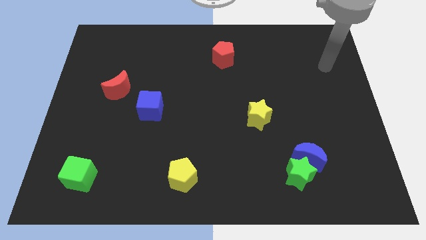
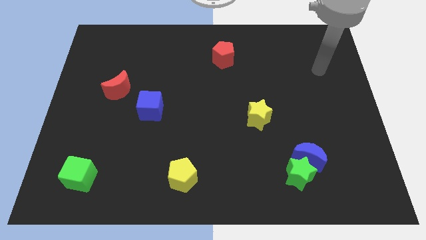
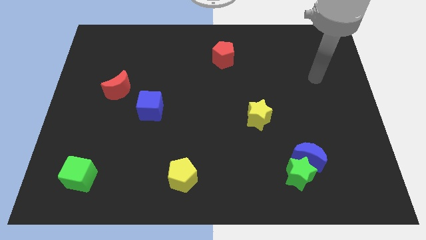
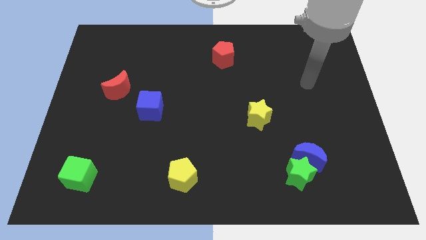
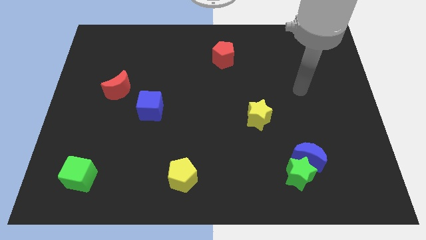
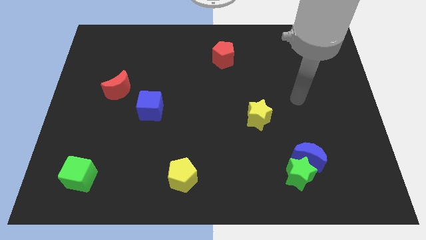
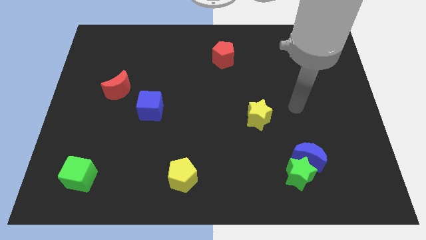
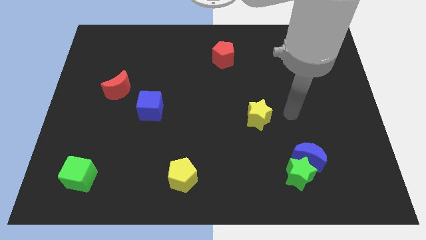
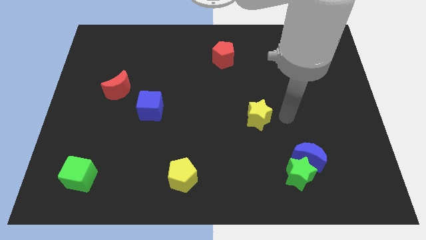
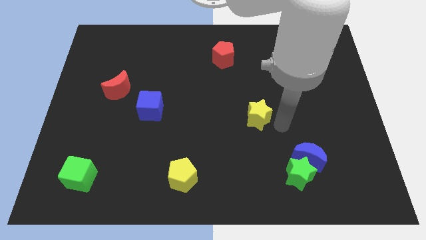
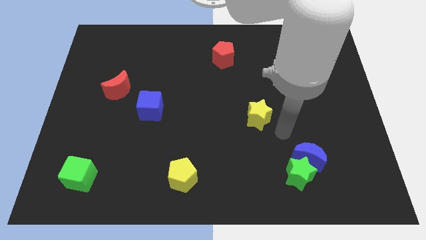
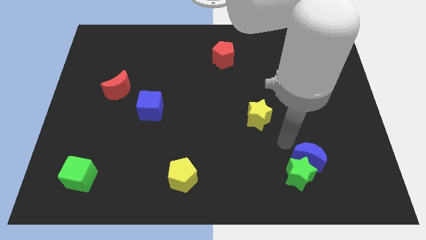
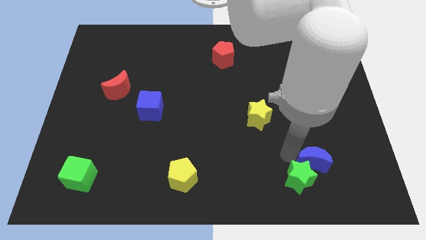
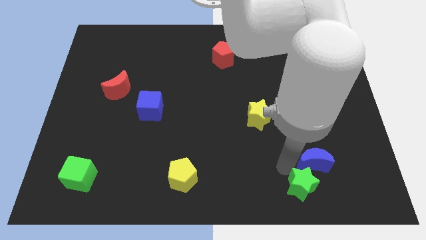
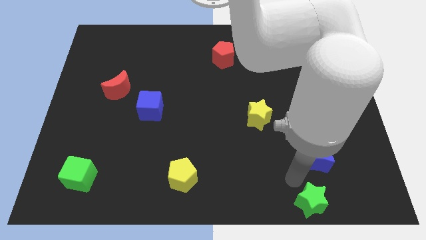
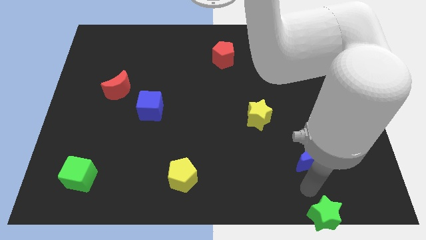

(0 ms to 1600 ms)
pull the blue moon apart from the green star

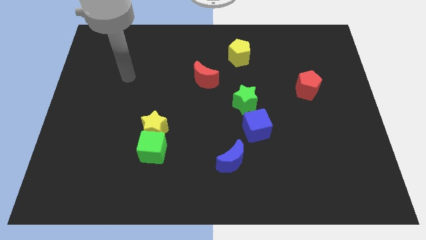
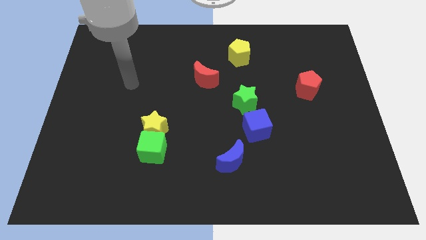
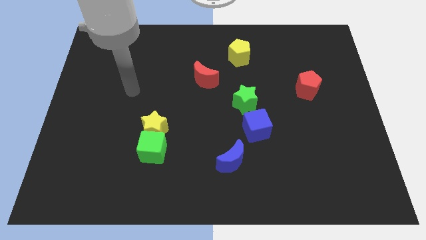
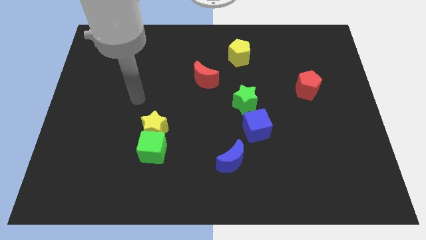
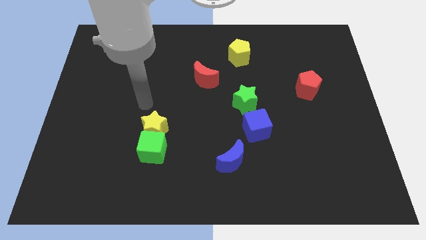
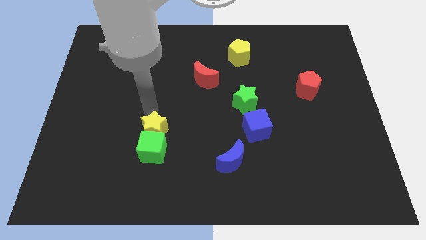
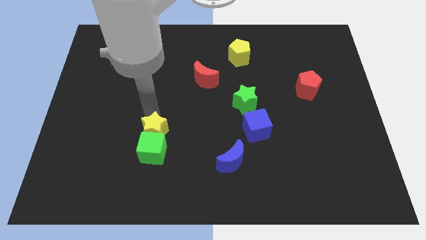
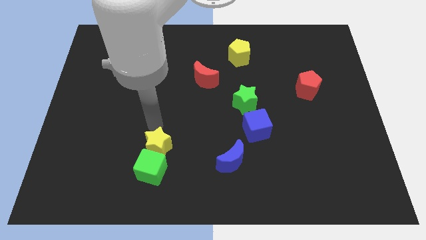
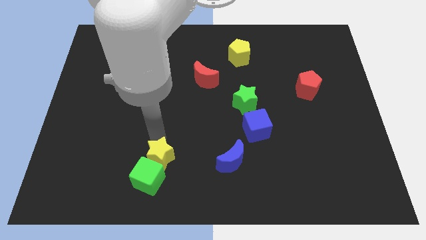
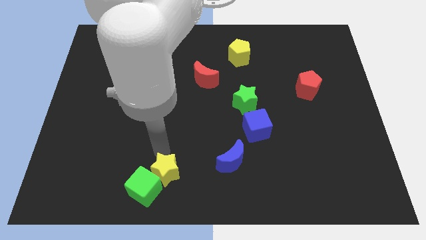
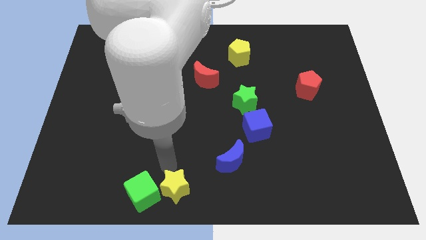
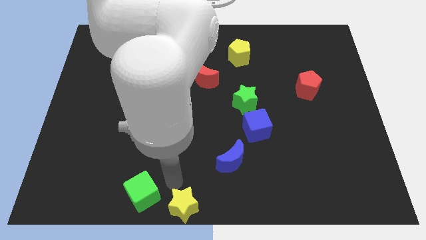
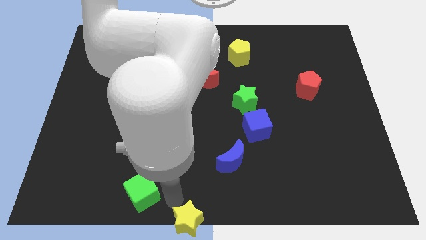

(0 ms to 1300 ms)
move the green cube away from the yellow star

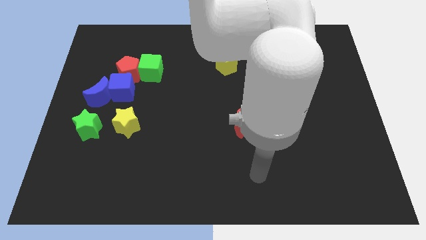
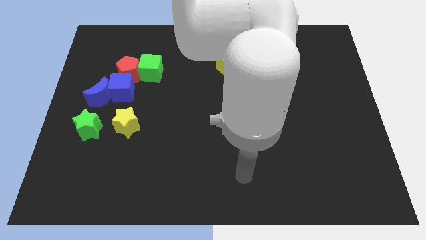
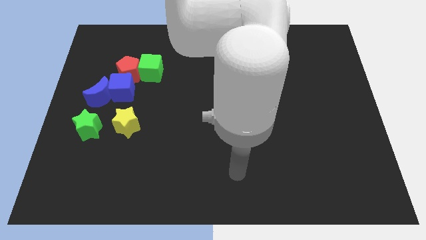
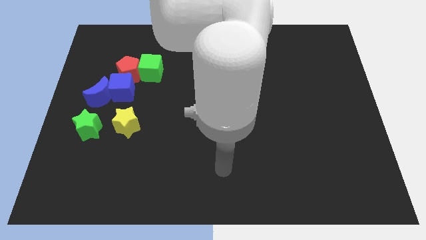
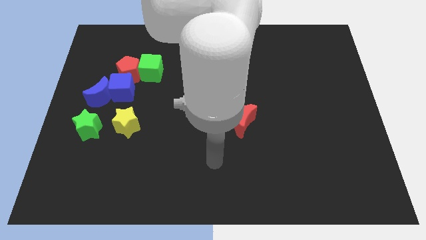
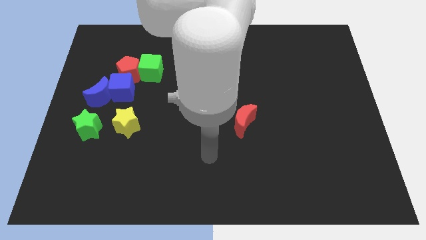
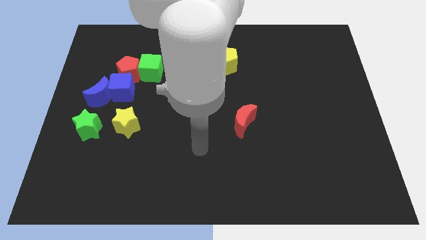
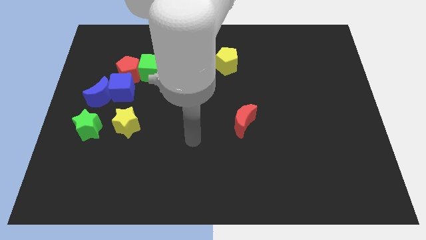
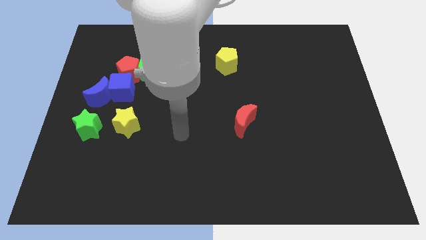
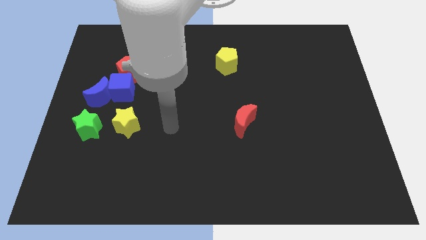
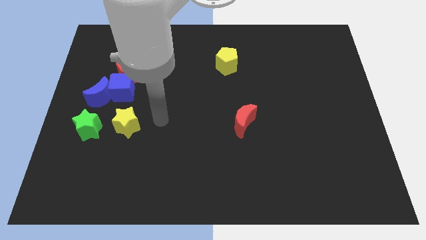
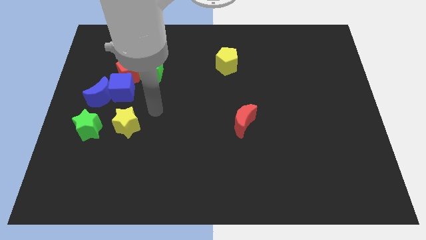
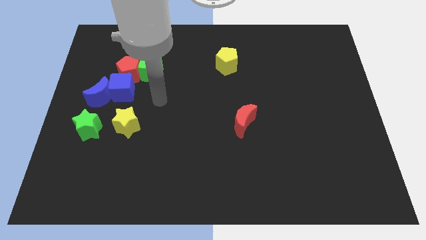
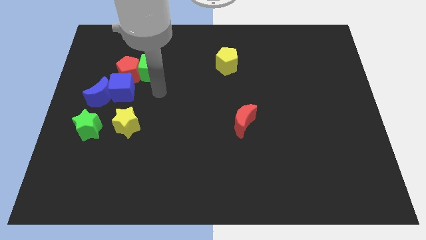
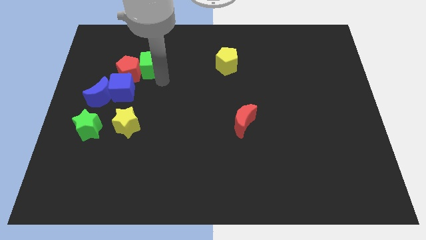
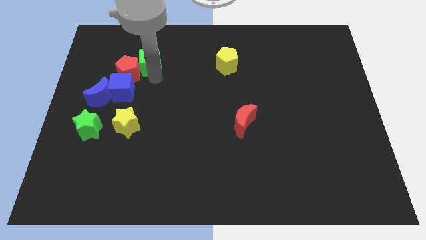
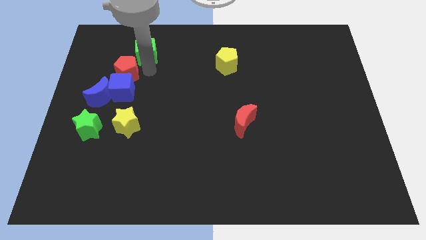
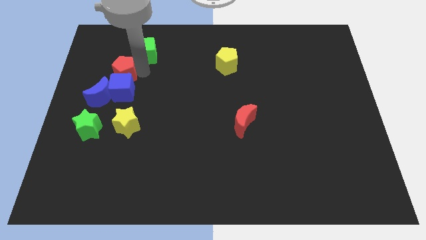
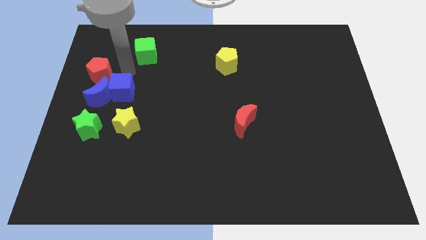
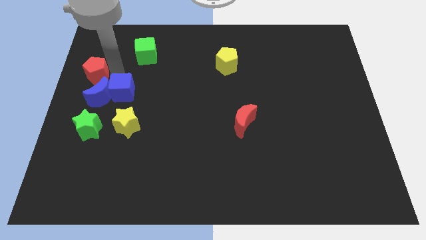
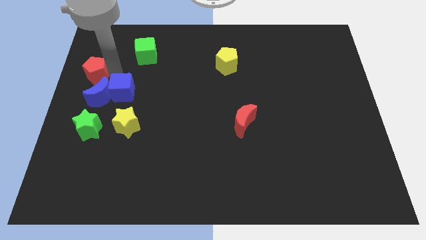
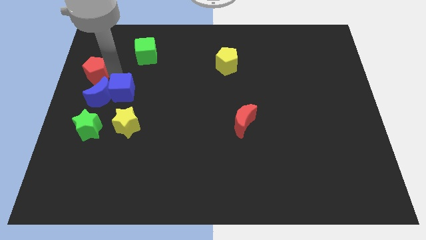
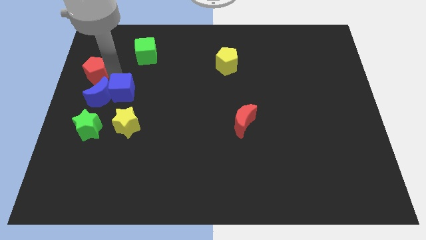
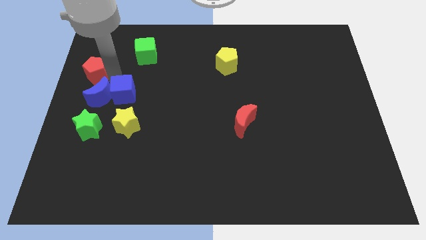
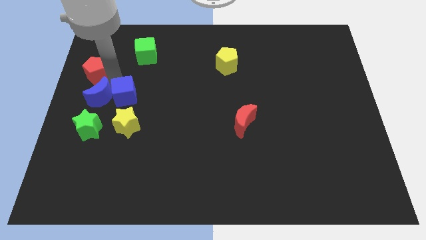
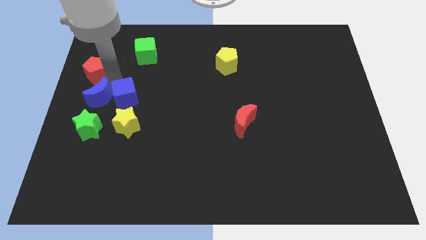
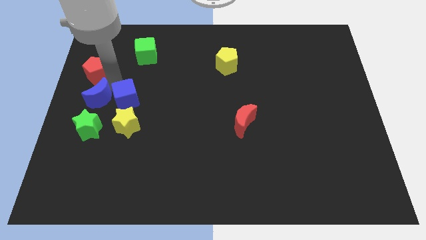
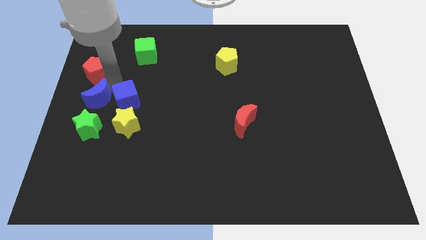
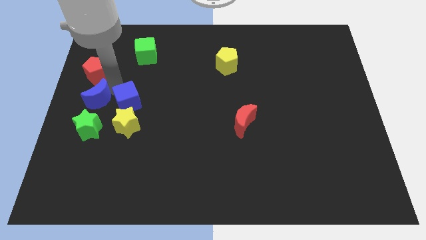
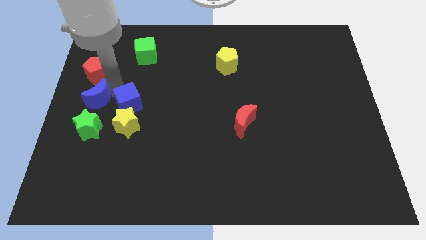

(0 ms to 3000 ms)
pull the blue cube apart from the group

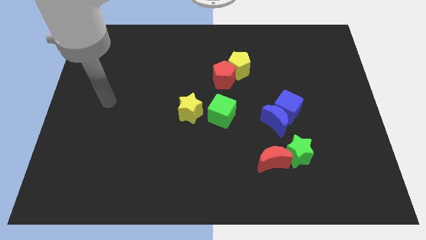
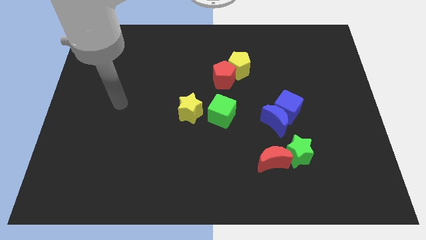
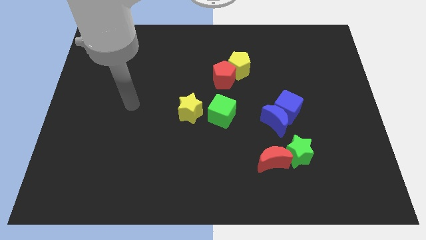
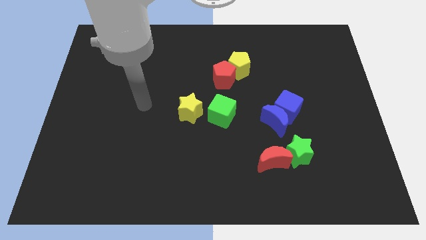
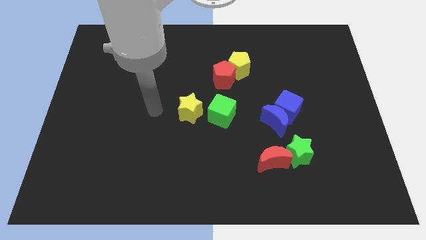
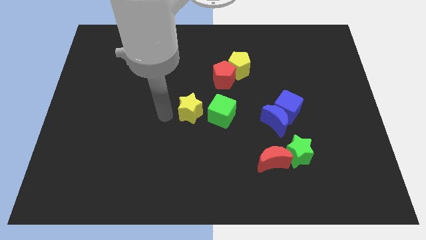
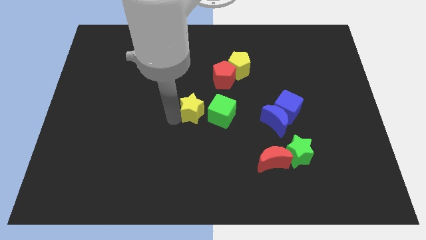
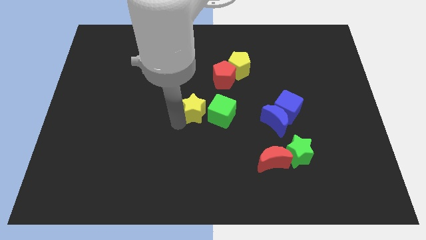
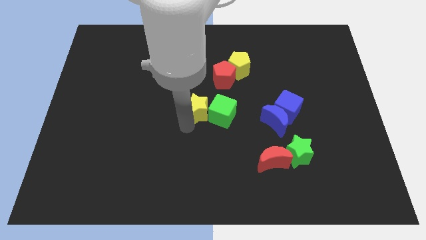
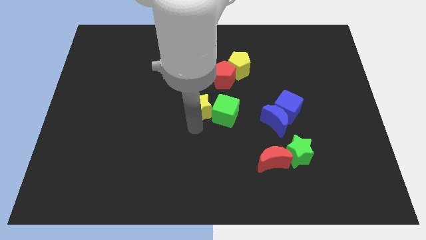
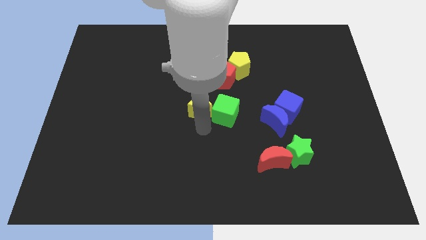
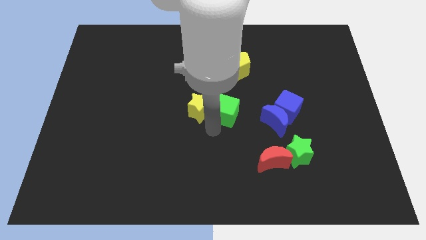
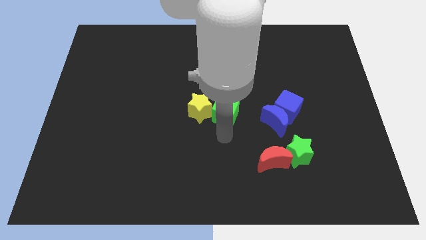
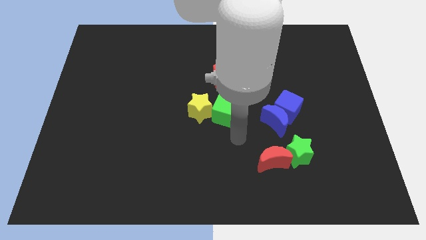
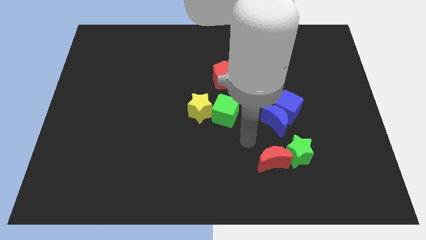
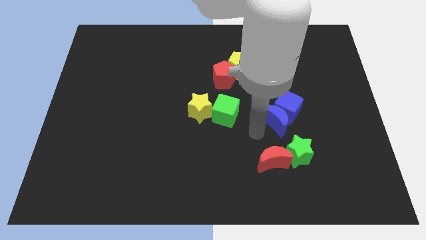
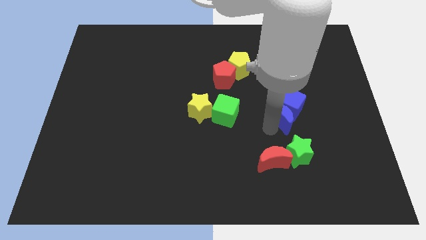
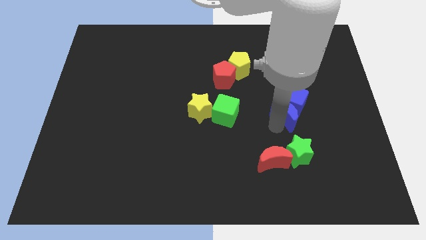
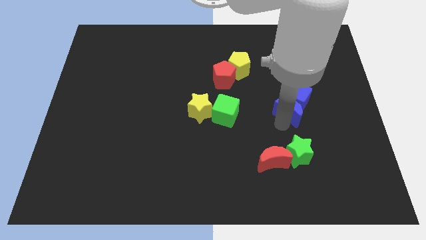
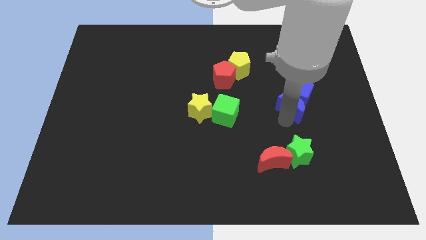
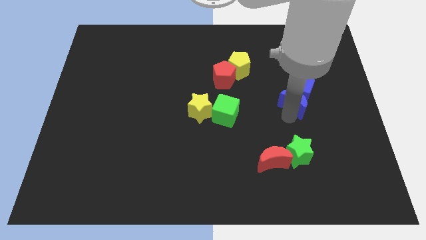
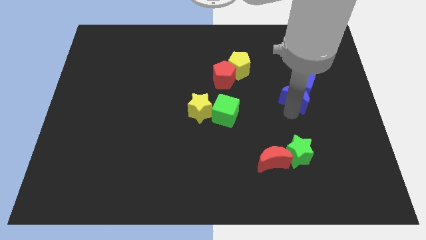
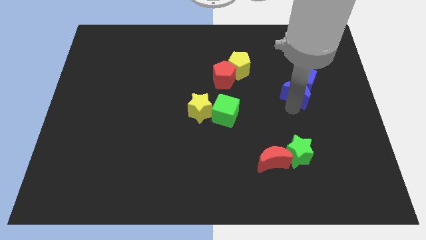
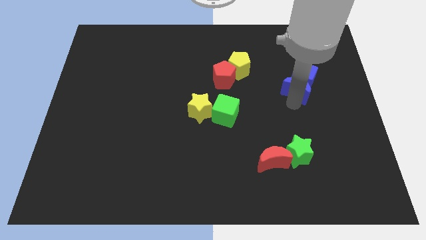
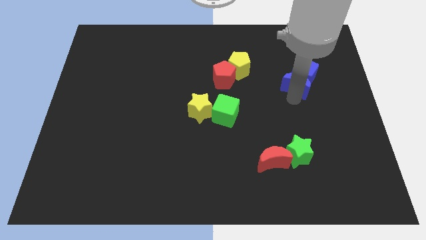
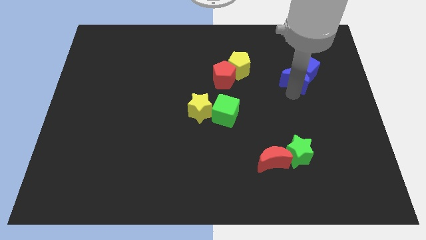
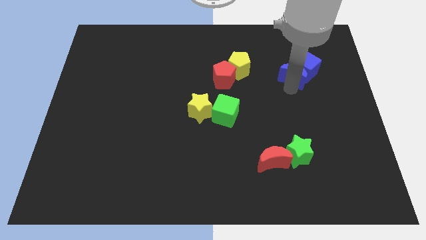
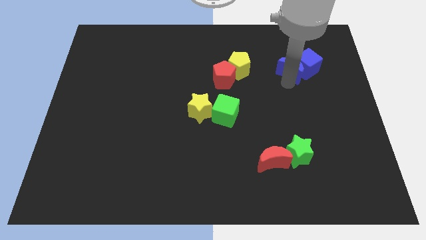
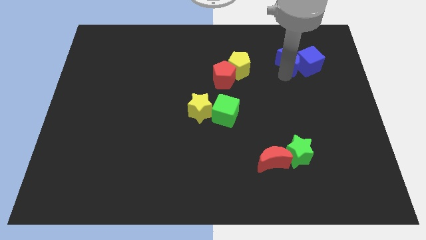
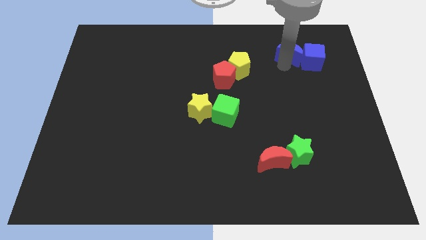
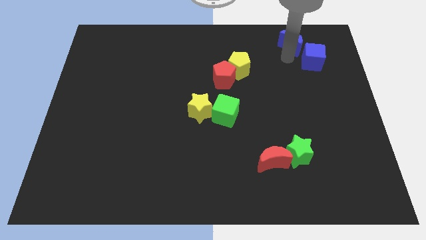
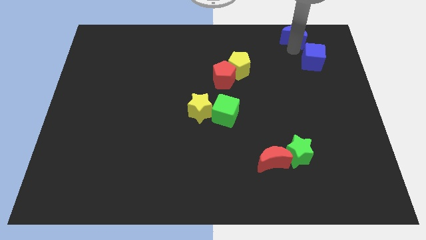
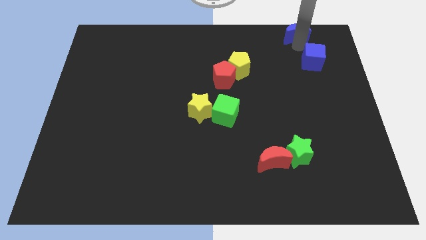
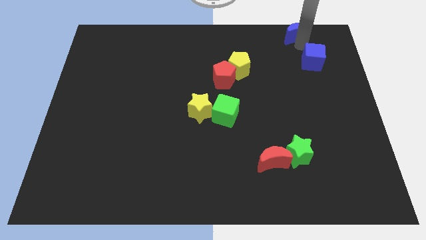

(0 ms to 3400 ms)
move the blue cube away from the blue moon

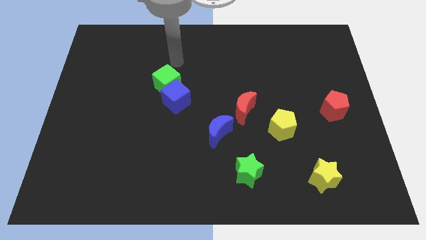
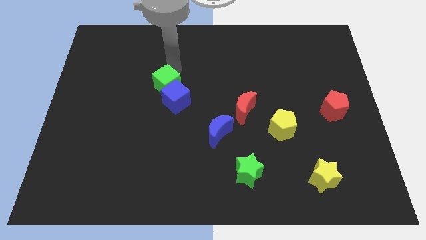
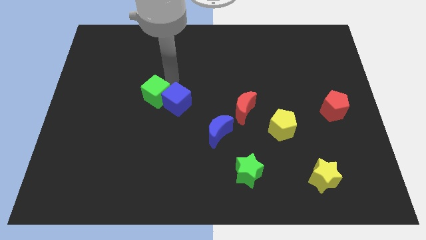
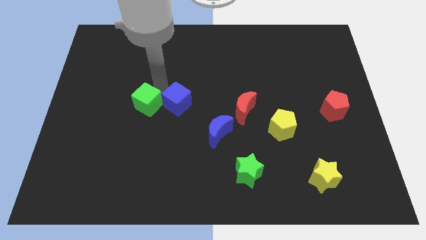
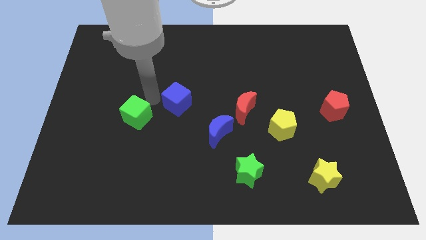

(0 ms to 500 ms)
pull the blue cube apart from the green cube
